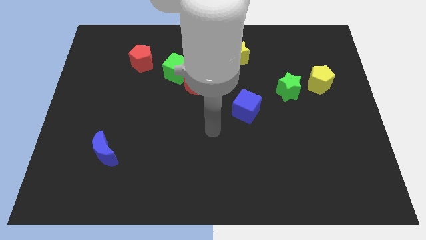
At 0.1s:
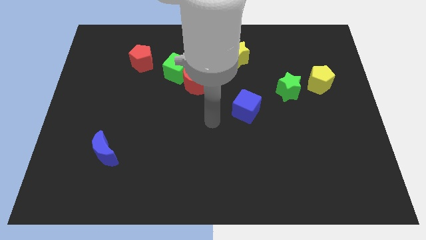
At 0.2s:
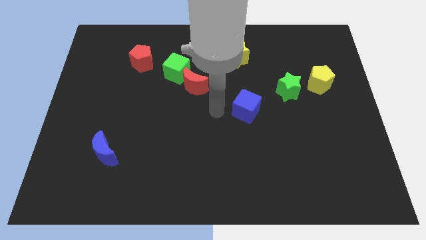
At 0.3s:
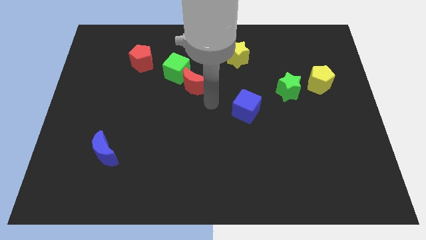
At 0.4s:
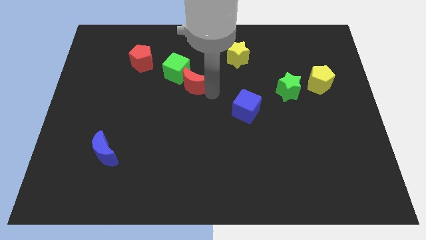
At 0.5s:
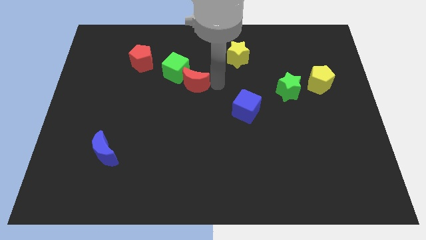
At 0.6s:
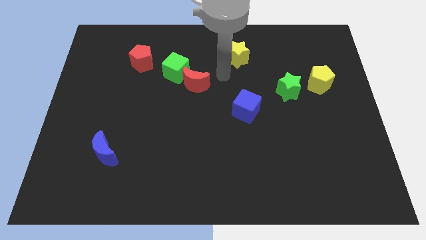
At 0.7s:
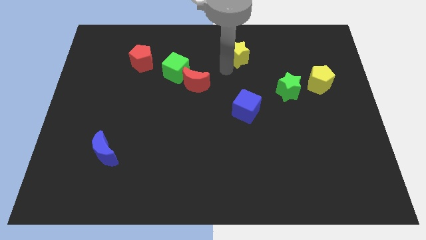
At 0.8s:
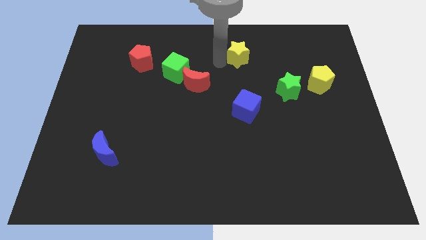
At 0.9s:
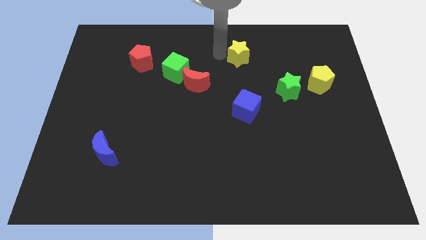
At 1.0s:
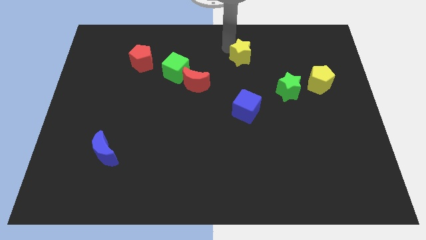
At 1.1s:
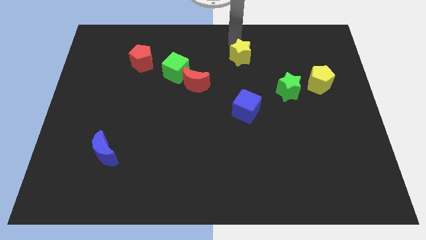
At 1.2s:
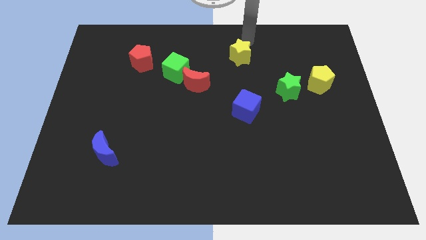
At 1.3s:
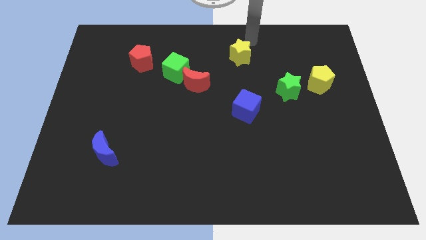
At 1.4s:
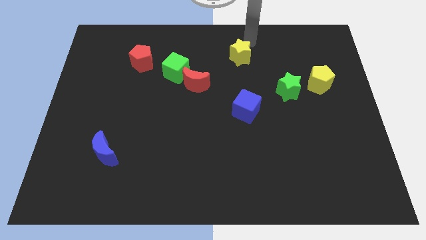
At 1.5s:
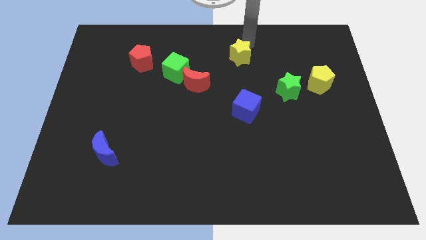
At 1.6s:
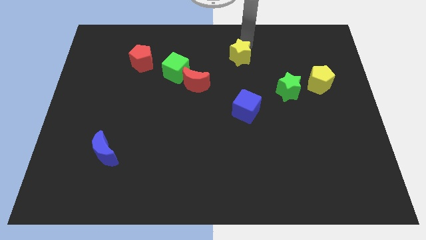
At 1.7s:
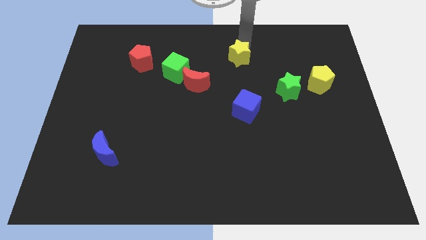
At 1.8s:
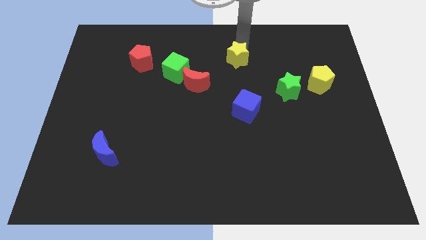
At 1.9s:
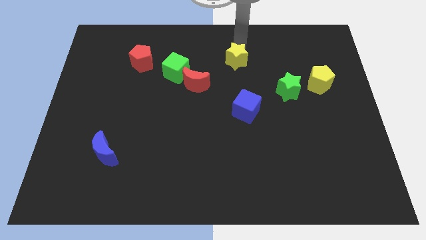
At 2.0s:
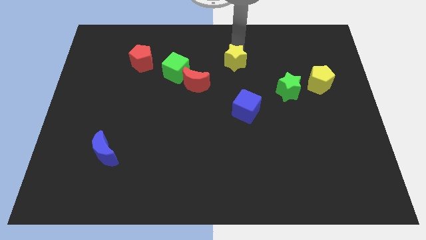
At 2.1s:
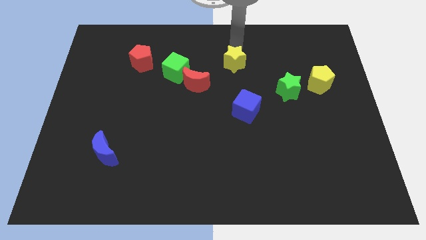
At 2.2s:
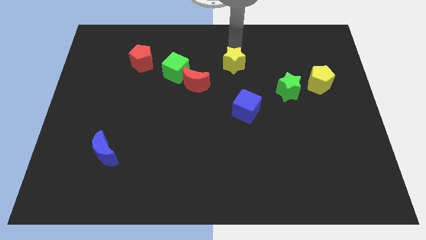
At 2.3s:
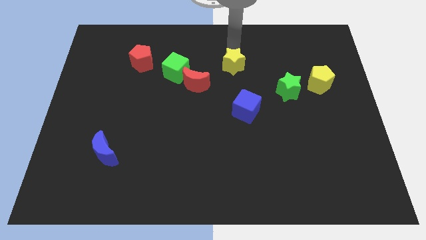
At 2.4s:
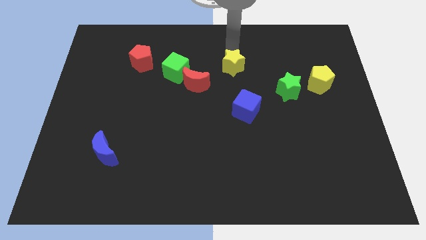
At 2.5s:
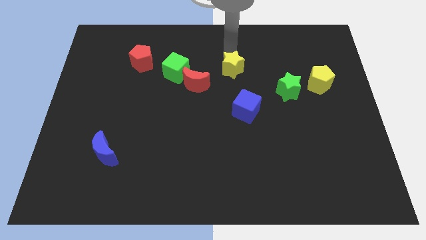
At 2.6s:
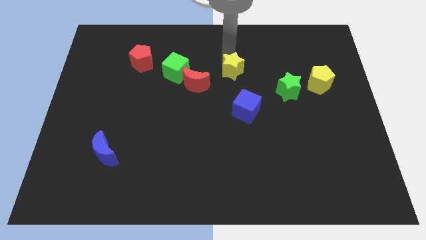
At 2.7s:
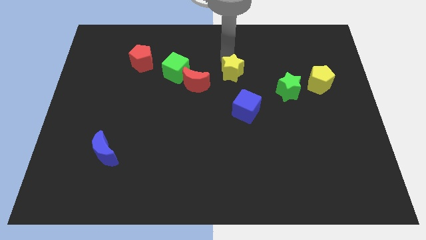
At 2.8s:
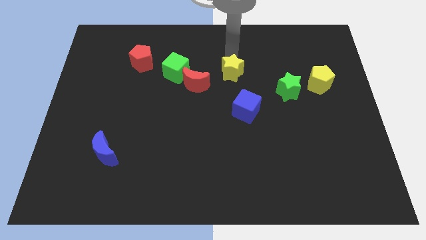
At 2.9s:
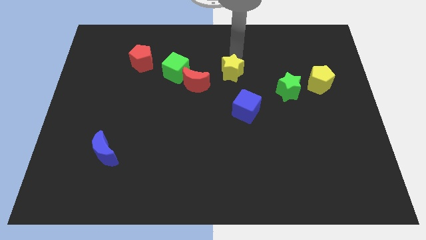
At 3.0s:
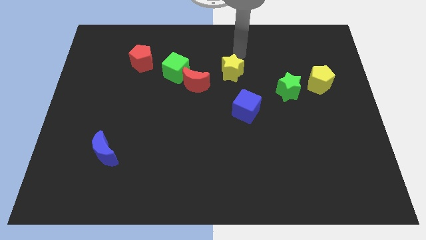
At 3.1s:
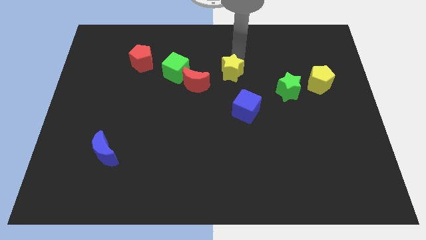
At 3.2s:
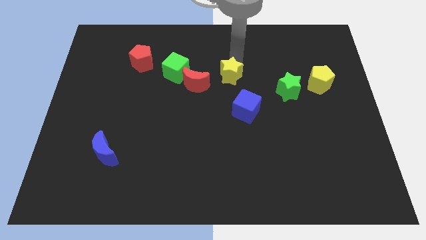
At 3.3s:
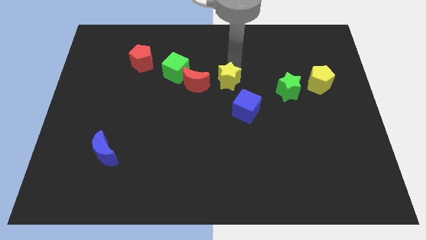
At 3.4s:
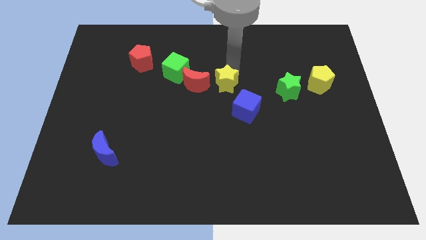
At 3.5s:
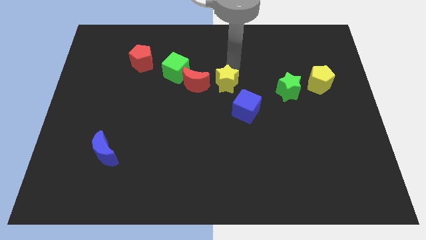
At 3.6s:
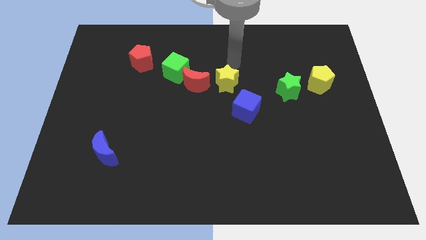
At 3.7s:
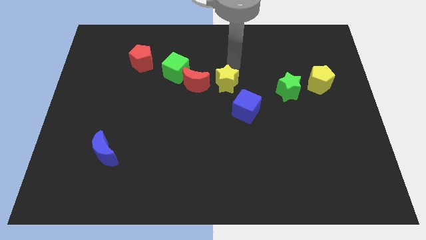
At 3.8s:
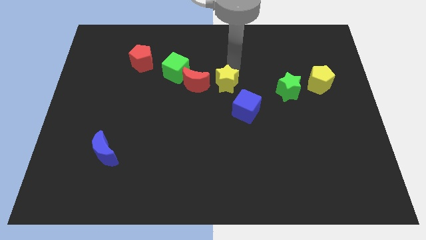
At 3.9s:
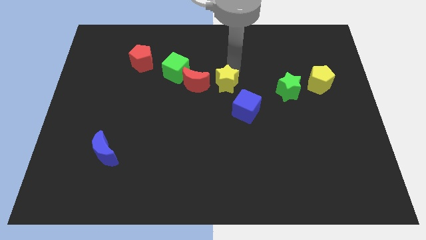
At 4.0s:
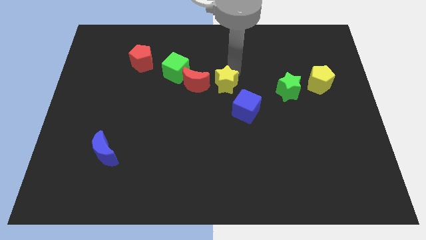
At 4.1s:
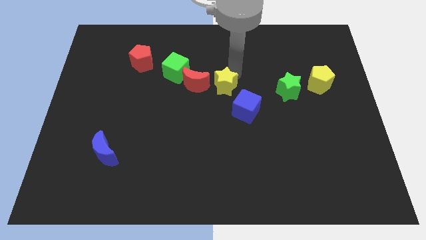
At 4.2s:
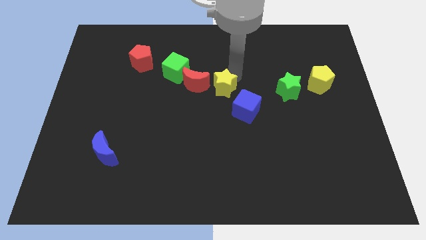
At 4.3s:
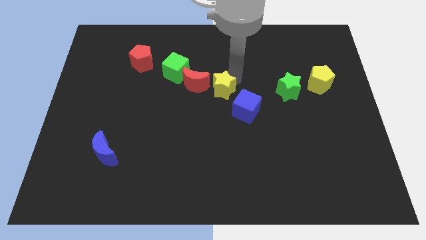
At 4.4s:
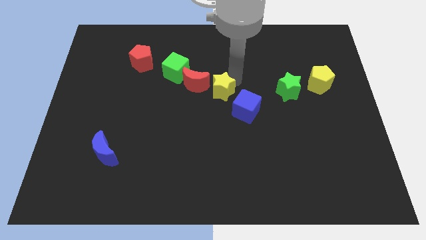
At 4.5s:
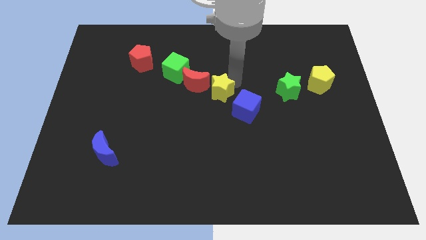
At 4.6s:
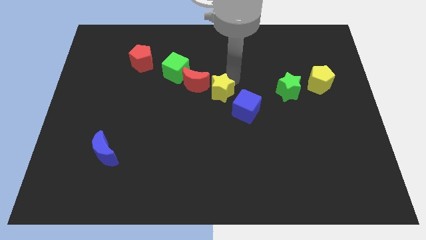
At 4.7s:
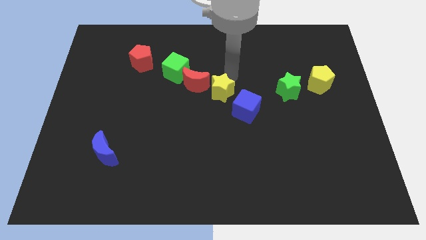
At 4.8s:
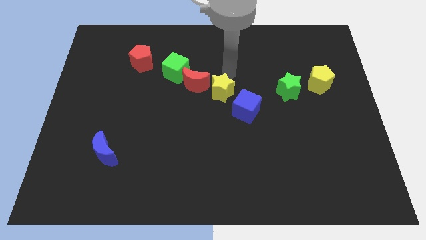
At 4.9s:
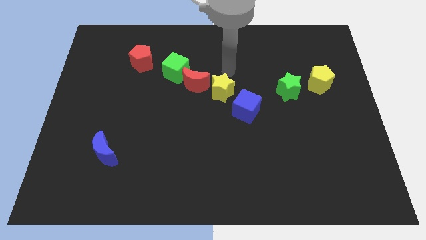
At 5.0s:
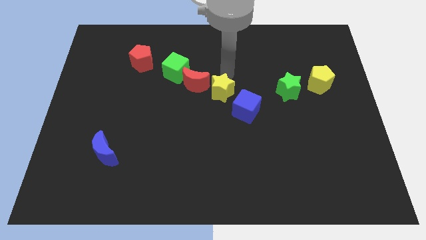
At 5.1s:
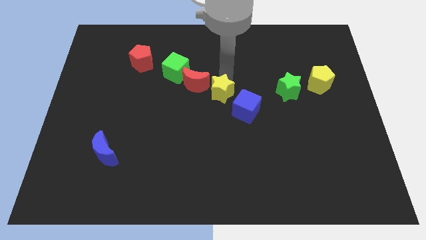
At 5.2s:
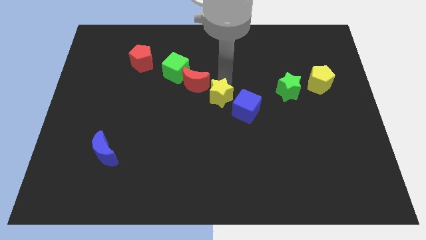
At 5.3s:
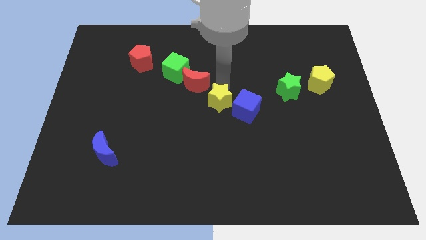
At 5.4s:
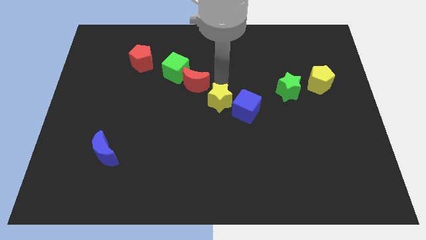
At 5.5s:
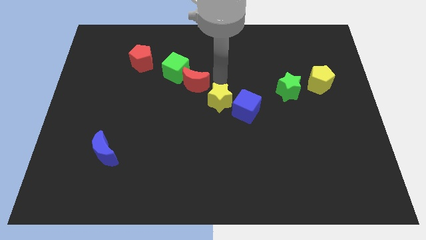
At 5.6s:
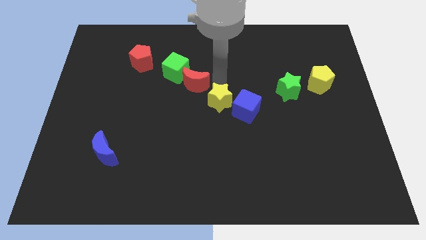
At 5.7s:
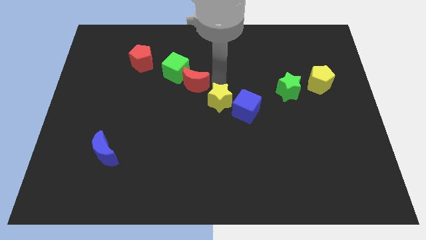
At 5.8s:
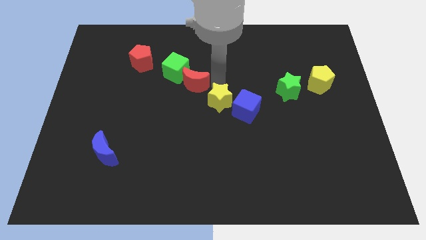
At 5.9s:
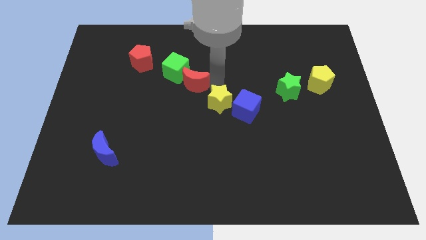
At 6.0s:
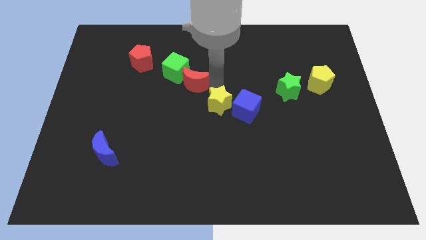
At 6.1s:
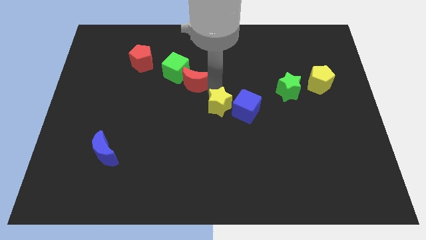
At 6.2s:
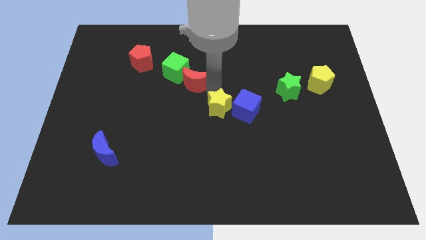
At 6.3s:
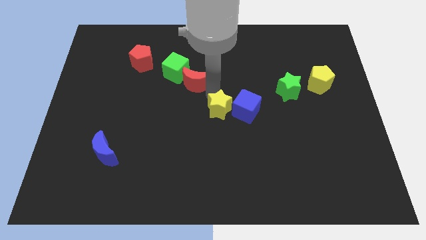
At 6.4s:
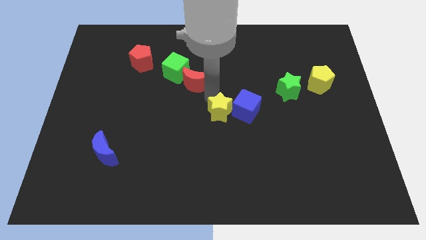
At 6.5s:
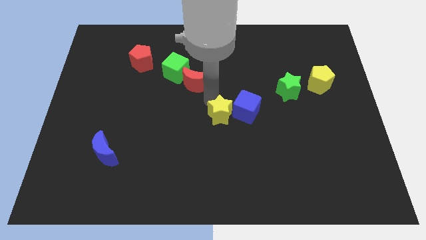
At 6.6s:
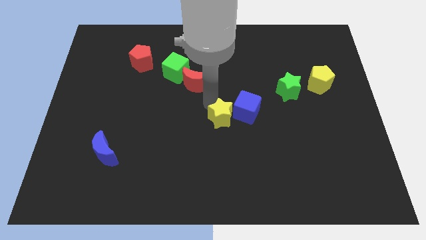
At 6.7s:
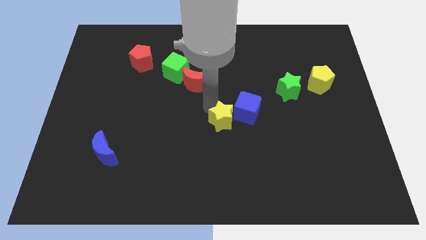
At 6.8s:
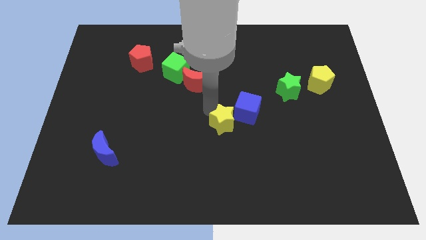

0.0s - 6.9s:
move the yellow star downwards

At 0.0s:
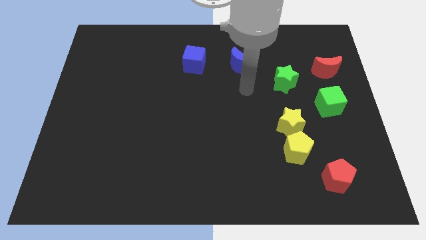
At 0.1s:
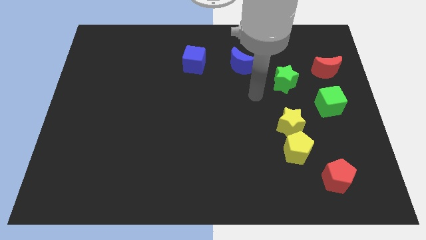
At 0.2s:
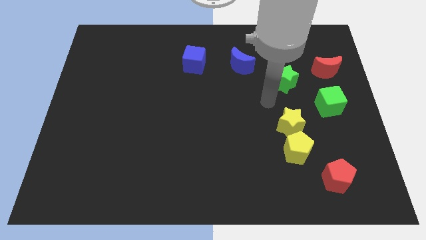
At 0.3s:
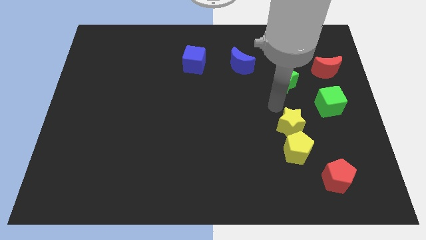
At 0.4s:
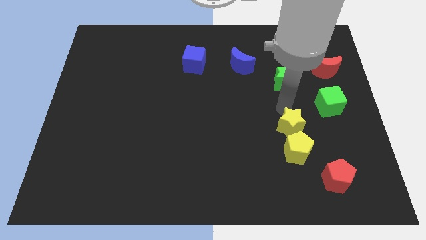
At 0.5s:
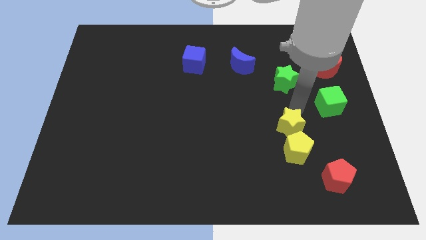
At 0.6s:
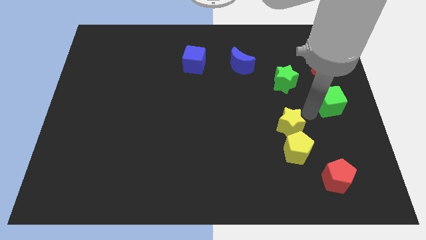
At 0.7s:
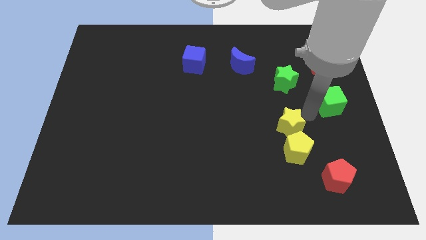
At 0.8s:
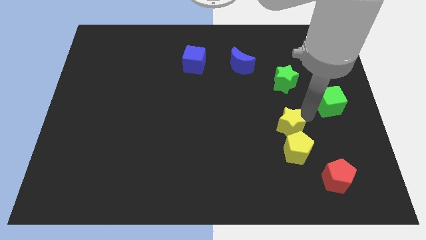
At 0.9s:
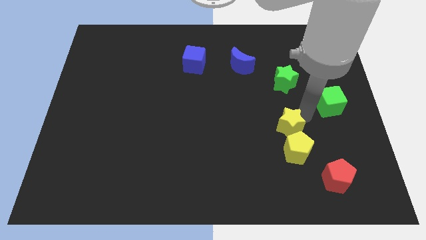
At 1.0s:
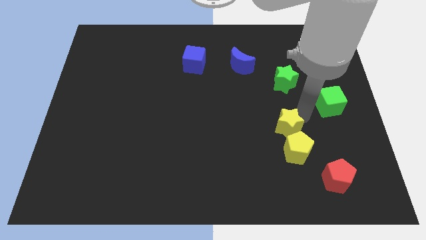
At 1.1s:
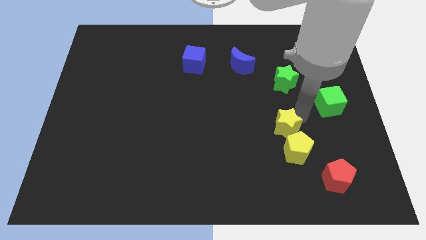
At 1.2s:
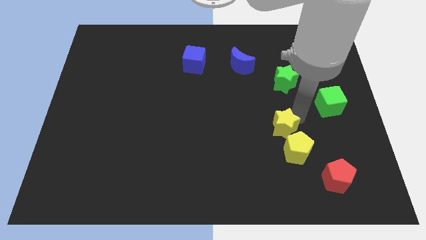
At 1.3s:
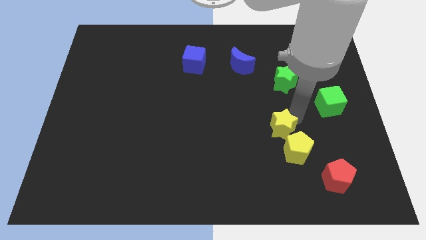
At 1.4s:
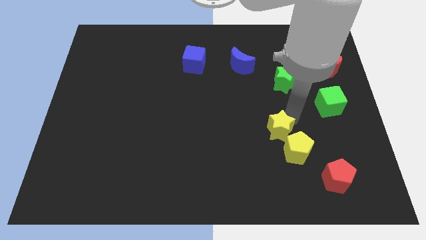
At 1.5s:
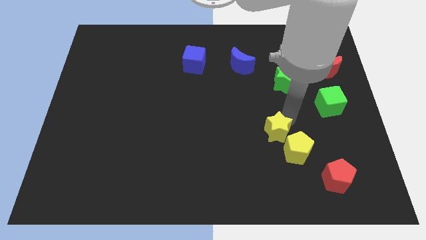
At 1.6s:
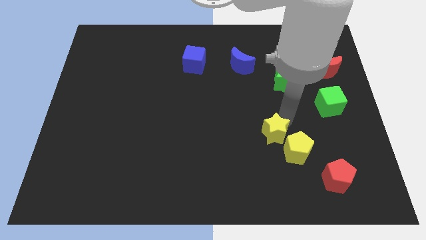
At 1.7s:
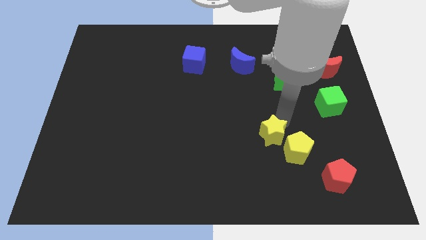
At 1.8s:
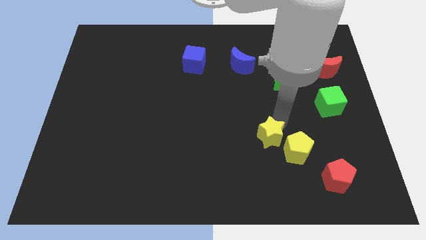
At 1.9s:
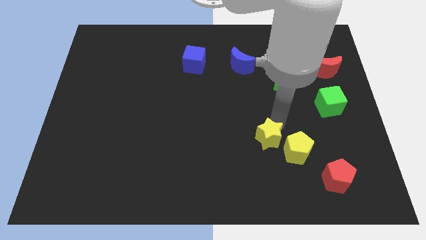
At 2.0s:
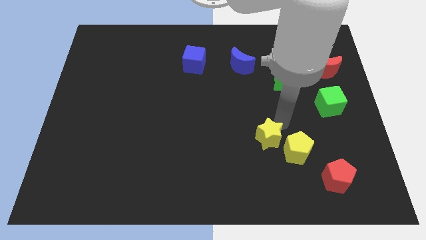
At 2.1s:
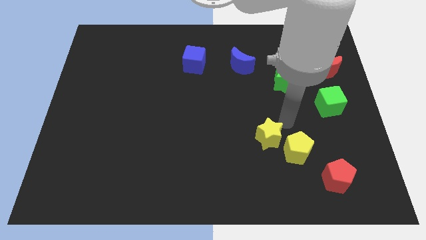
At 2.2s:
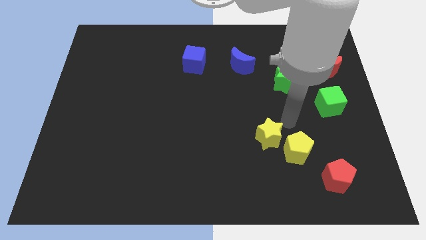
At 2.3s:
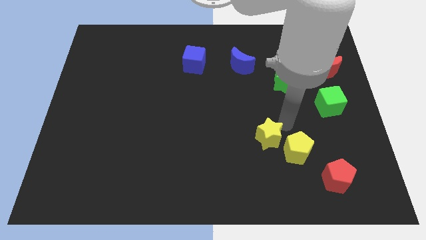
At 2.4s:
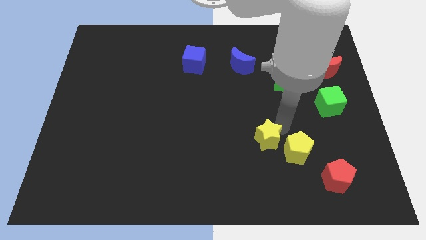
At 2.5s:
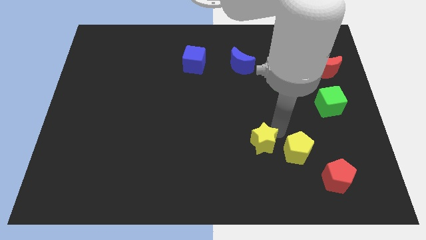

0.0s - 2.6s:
slide the yellow star a bit down and left
